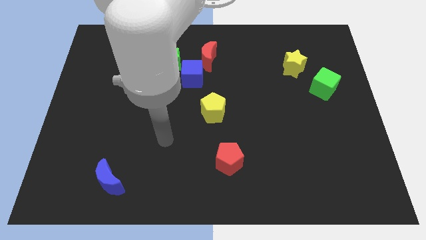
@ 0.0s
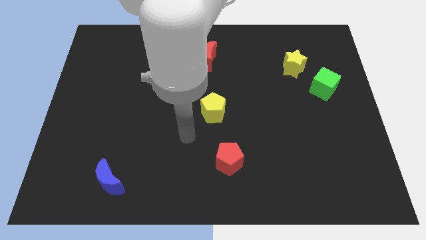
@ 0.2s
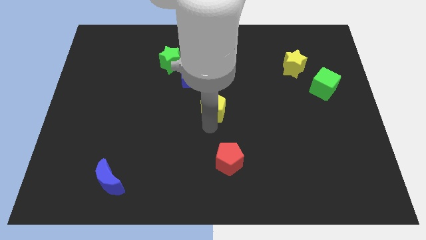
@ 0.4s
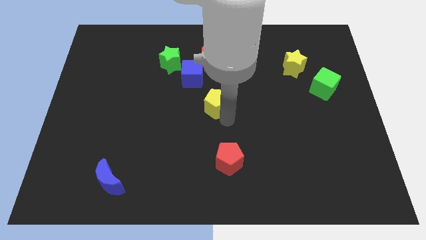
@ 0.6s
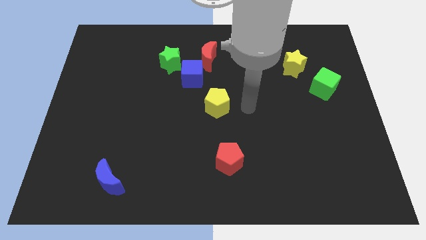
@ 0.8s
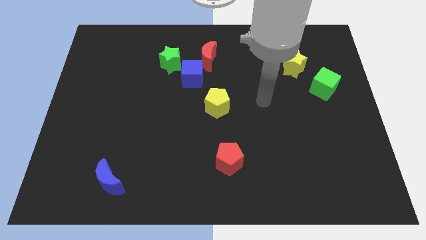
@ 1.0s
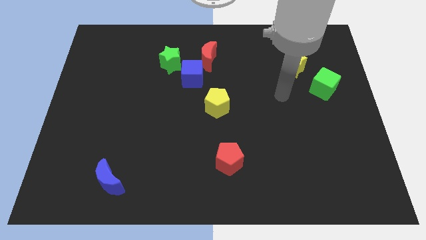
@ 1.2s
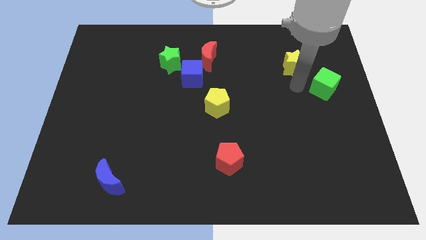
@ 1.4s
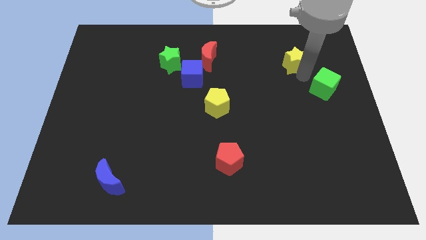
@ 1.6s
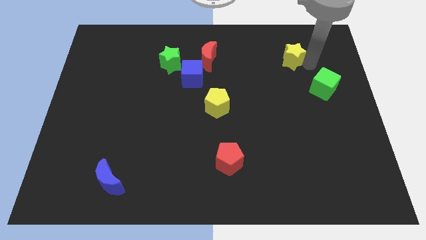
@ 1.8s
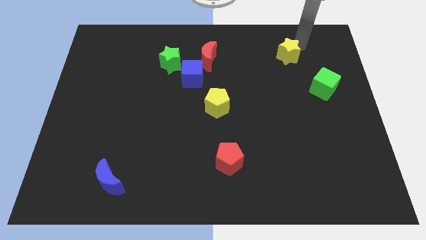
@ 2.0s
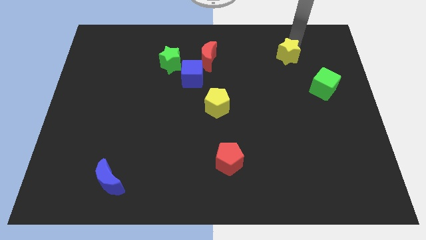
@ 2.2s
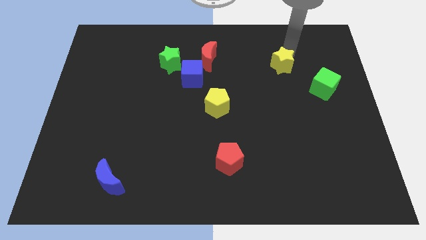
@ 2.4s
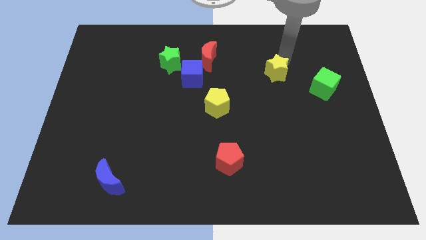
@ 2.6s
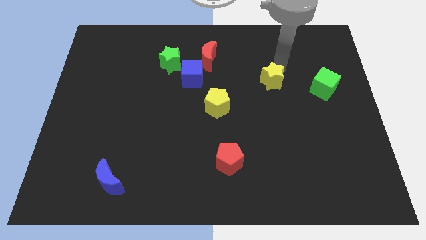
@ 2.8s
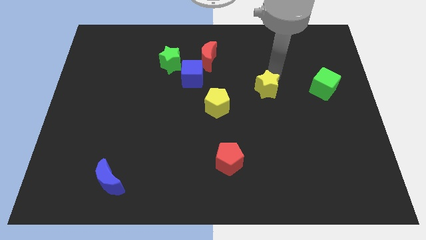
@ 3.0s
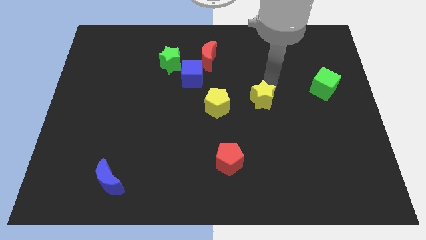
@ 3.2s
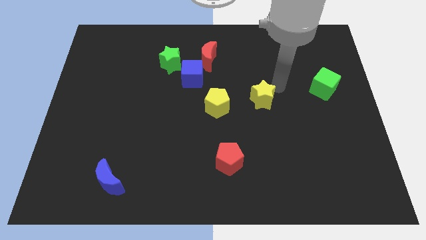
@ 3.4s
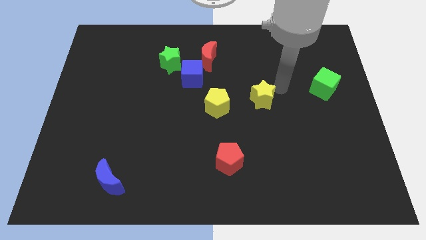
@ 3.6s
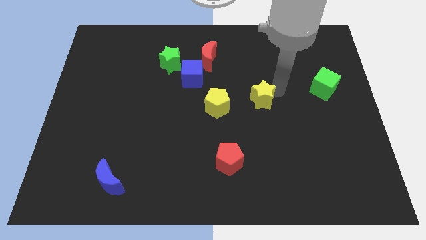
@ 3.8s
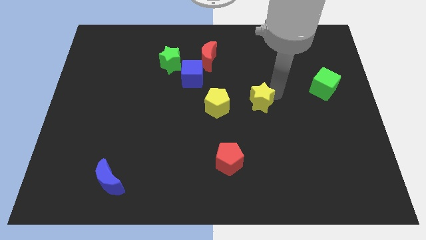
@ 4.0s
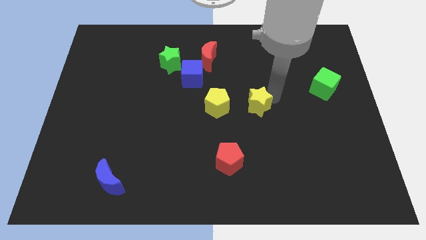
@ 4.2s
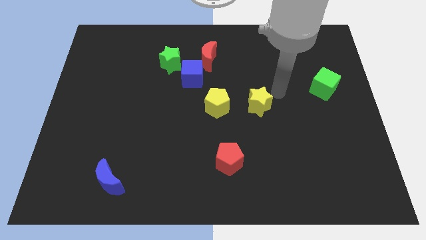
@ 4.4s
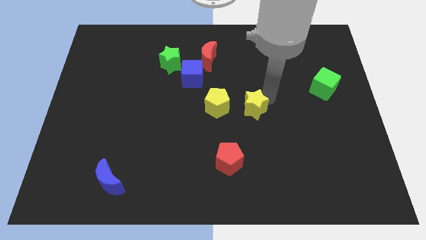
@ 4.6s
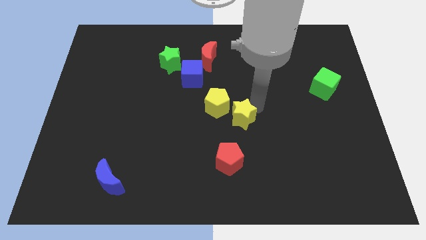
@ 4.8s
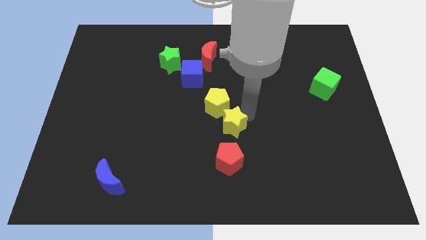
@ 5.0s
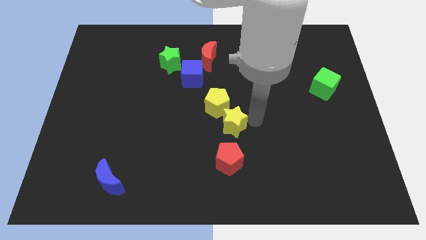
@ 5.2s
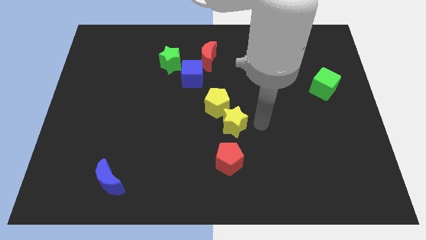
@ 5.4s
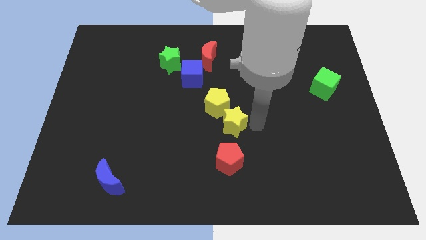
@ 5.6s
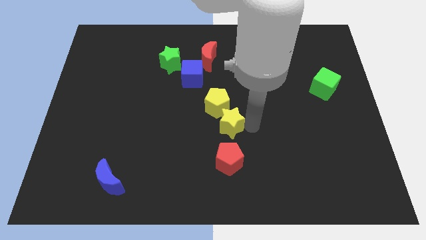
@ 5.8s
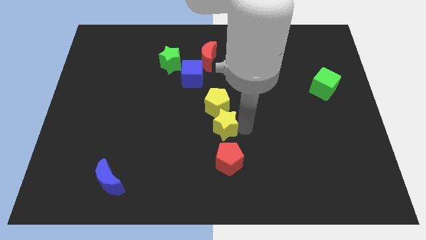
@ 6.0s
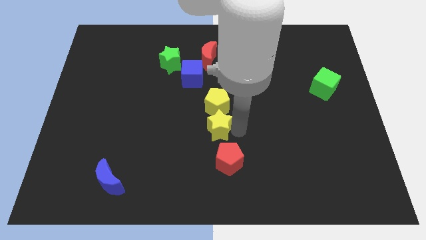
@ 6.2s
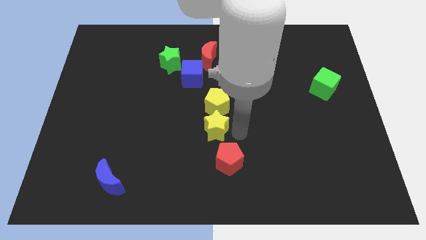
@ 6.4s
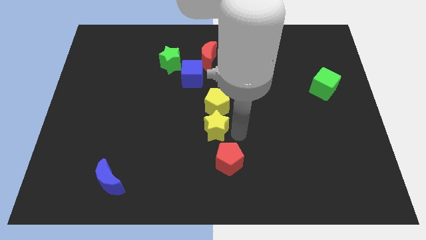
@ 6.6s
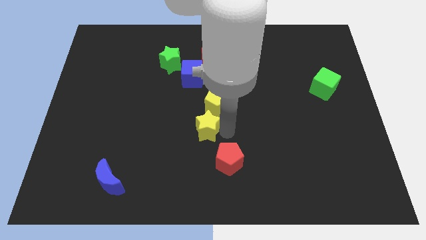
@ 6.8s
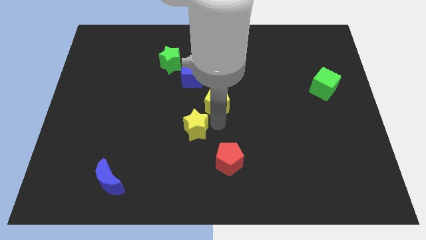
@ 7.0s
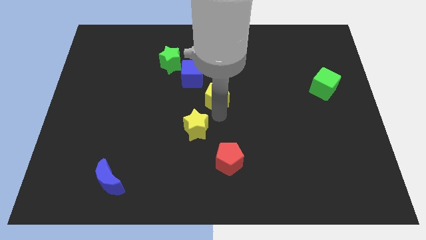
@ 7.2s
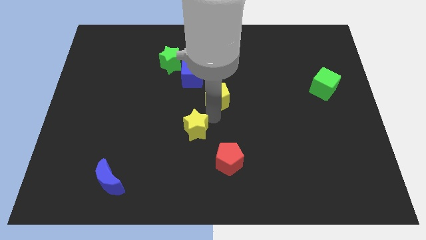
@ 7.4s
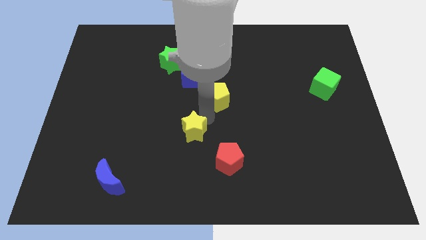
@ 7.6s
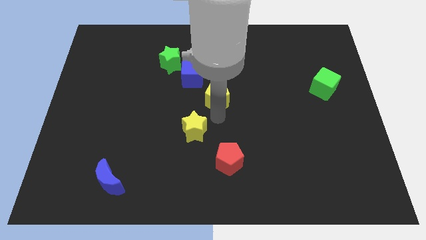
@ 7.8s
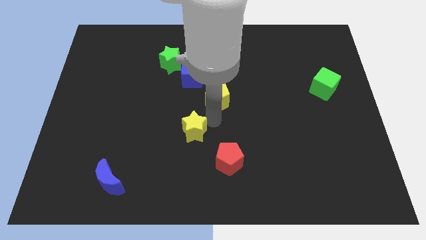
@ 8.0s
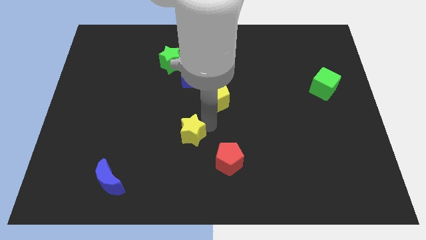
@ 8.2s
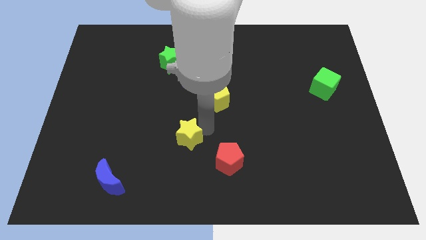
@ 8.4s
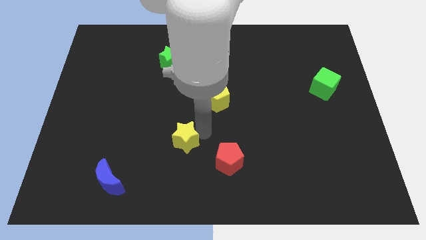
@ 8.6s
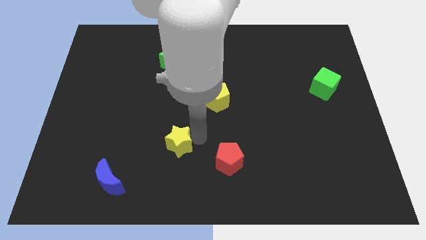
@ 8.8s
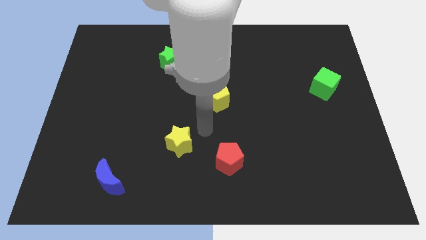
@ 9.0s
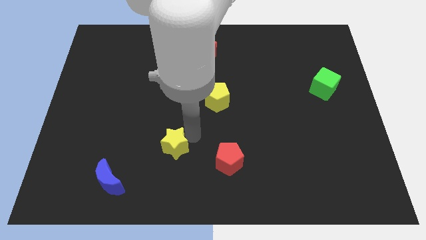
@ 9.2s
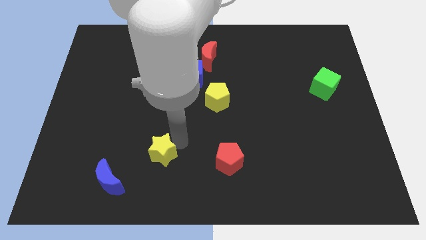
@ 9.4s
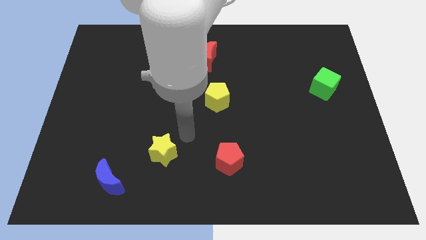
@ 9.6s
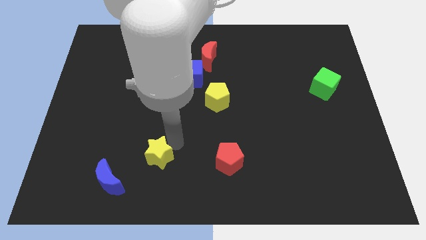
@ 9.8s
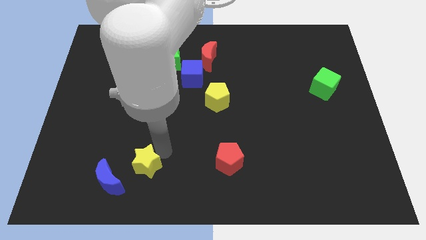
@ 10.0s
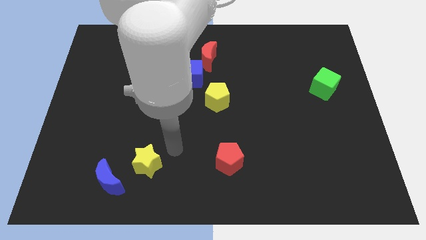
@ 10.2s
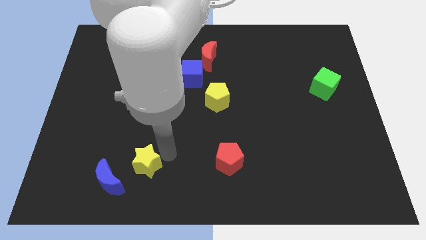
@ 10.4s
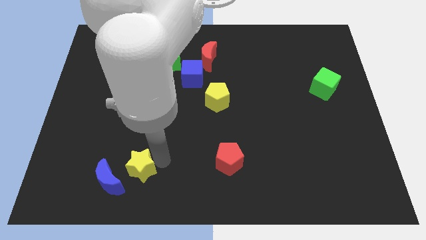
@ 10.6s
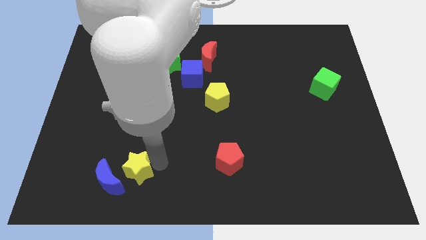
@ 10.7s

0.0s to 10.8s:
put the yellow star close to the blue moon

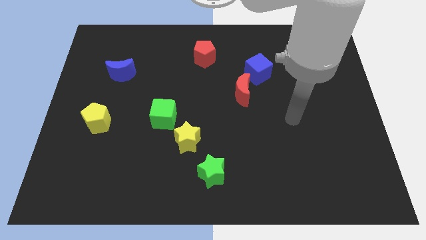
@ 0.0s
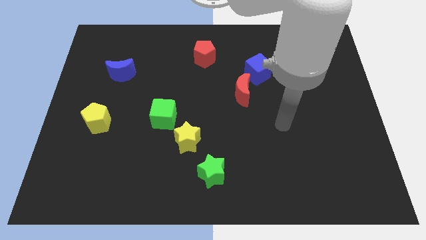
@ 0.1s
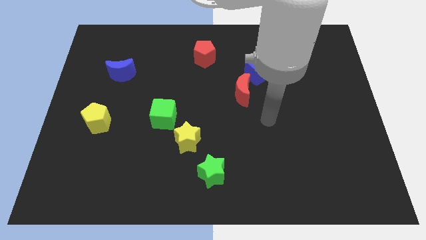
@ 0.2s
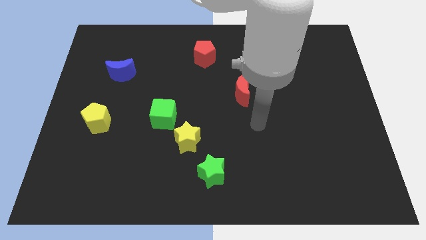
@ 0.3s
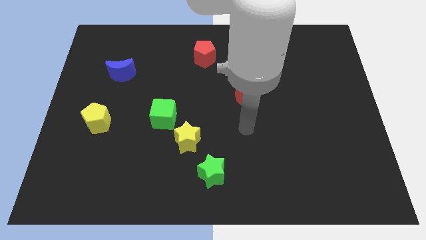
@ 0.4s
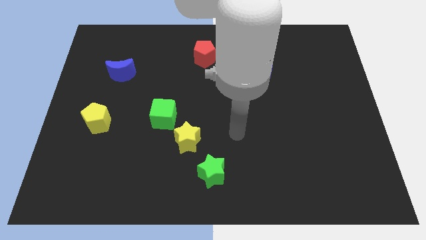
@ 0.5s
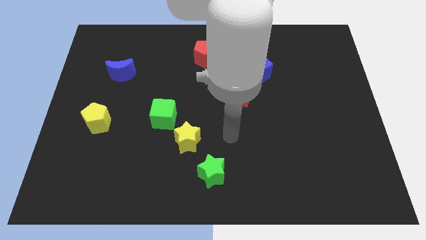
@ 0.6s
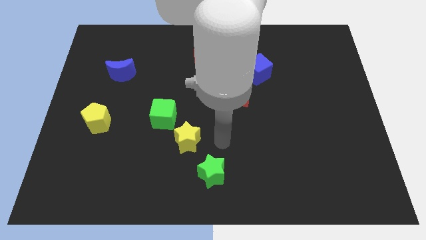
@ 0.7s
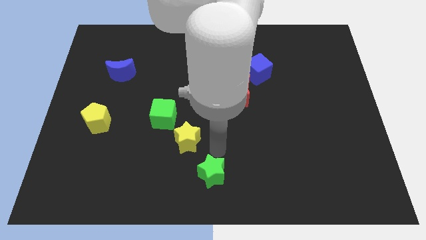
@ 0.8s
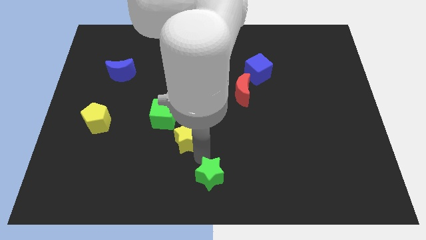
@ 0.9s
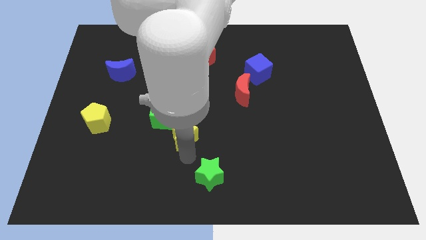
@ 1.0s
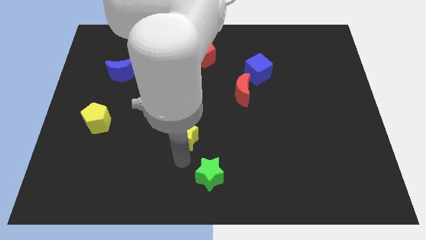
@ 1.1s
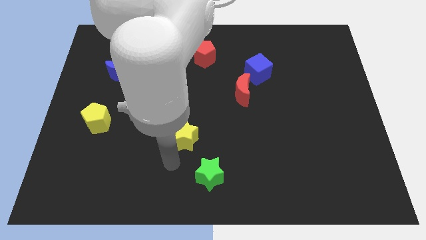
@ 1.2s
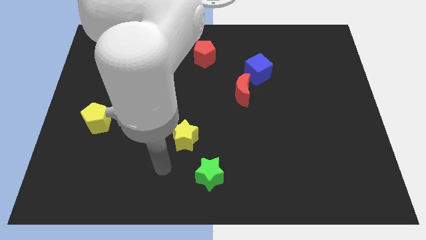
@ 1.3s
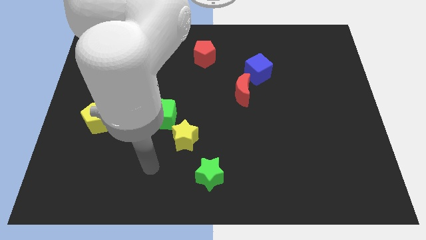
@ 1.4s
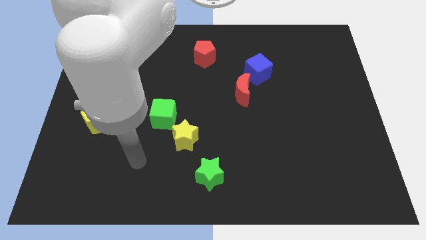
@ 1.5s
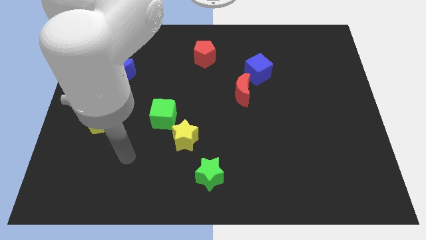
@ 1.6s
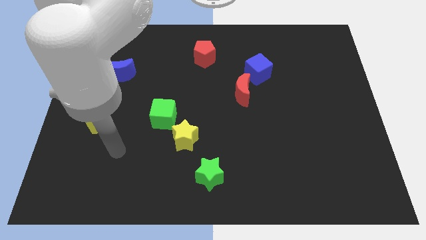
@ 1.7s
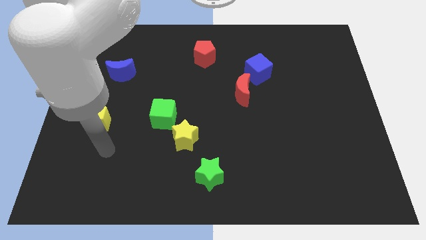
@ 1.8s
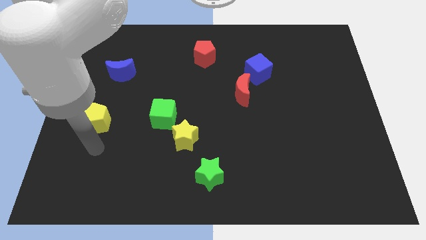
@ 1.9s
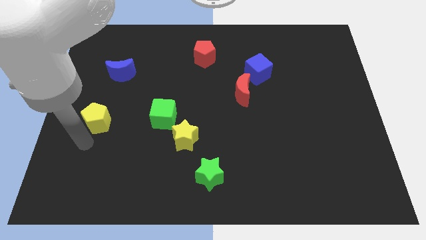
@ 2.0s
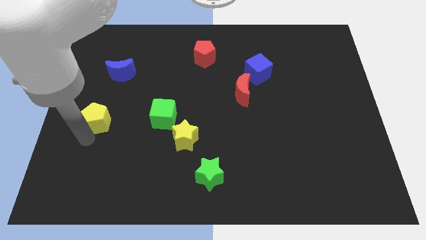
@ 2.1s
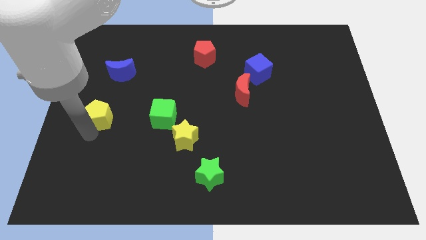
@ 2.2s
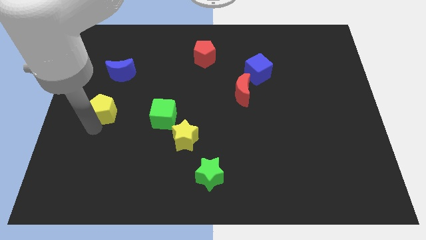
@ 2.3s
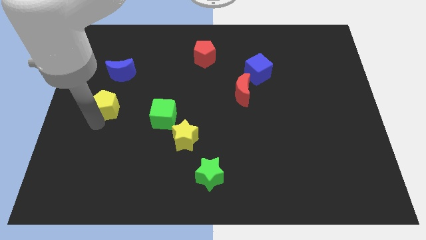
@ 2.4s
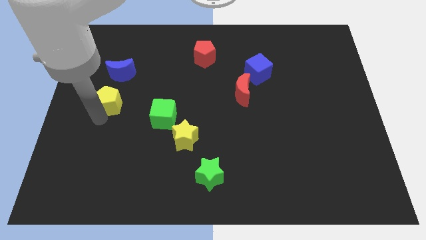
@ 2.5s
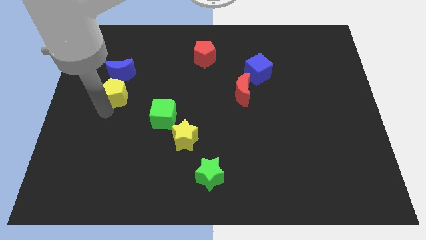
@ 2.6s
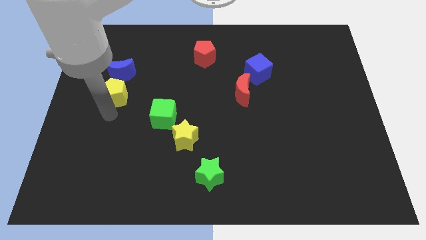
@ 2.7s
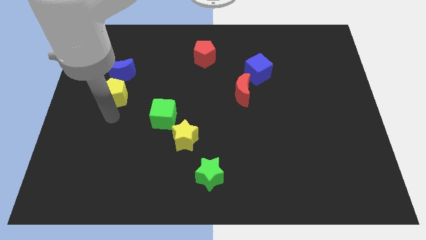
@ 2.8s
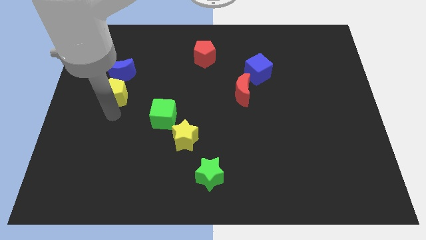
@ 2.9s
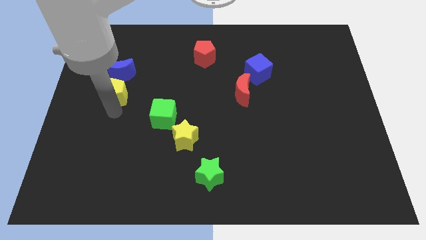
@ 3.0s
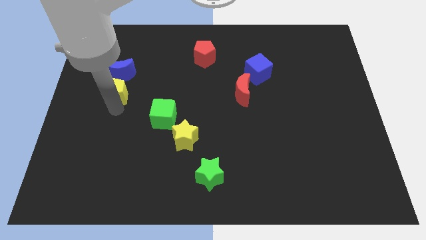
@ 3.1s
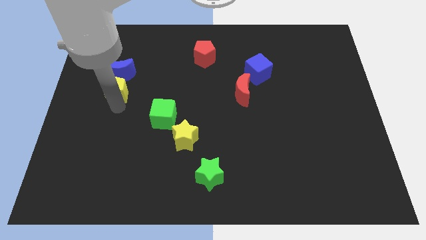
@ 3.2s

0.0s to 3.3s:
push the yellow pentagon next to the blue moon
